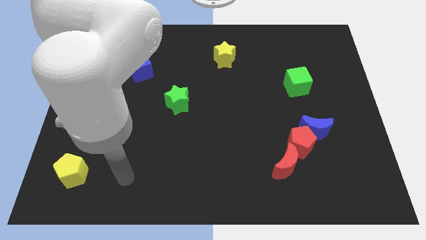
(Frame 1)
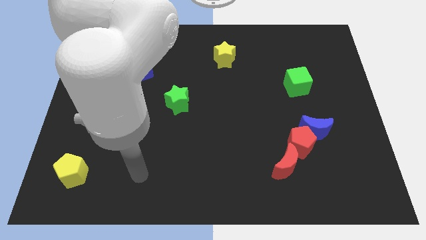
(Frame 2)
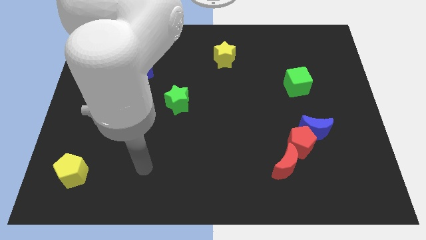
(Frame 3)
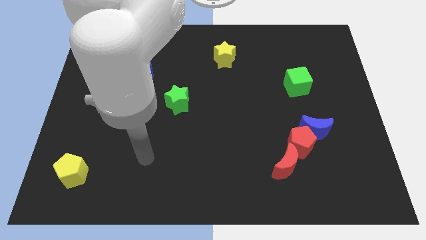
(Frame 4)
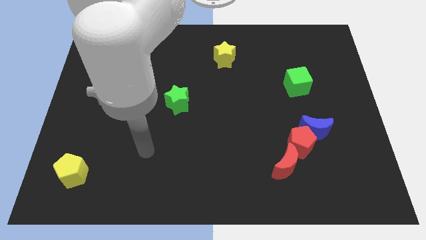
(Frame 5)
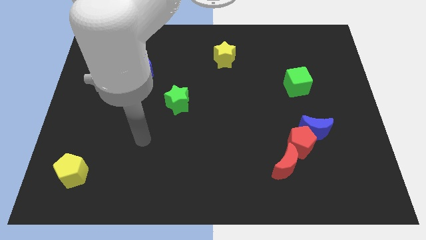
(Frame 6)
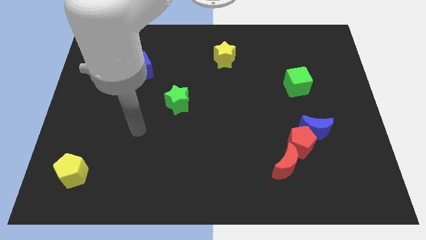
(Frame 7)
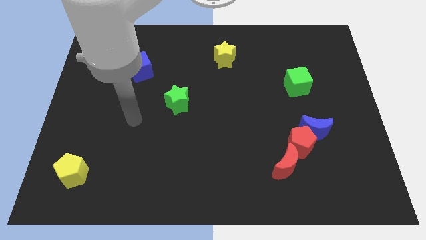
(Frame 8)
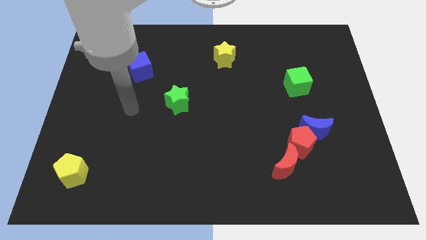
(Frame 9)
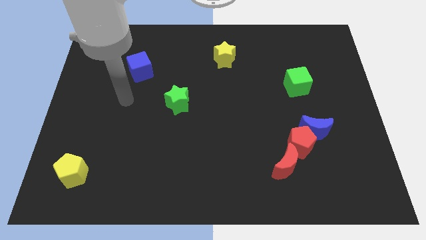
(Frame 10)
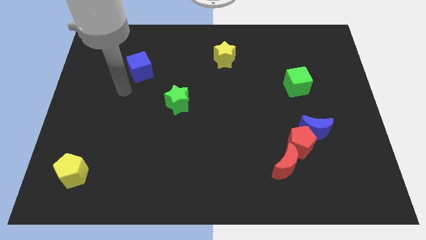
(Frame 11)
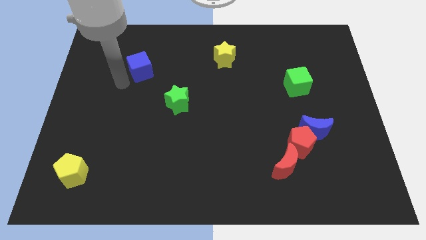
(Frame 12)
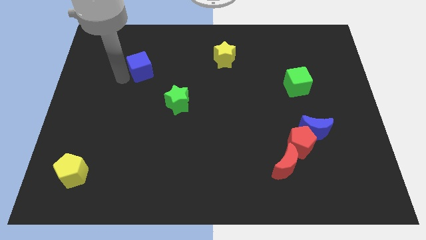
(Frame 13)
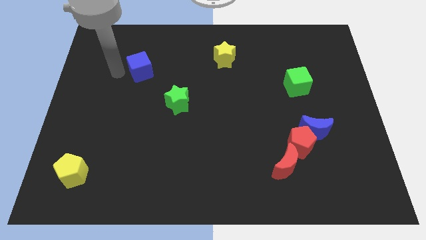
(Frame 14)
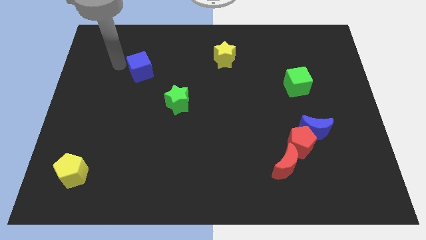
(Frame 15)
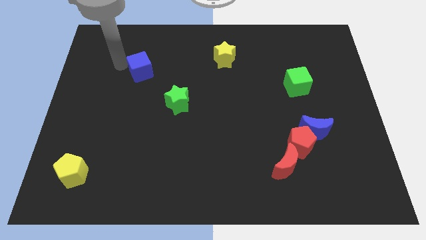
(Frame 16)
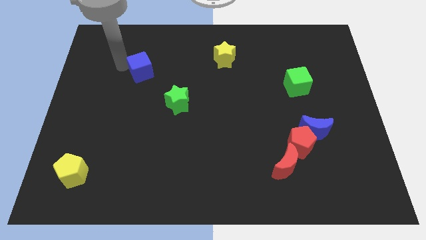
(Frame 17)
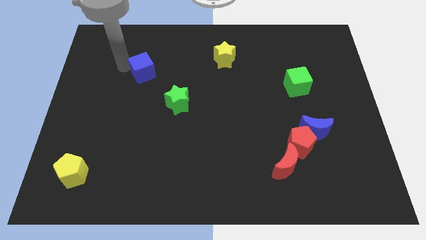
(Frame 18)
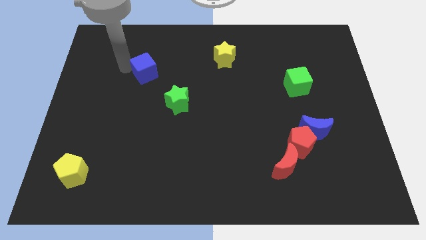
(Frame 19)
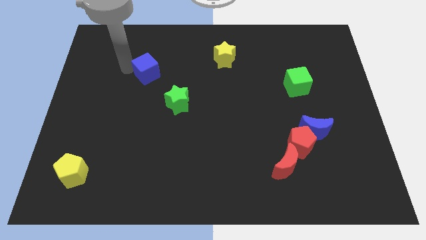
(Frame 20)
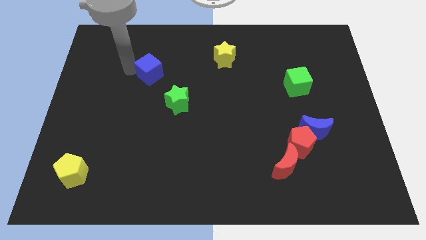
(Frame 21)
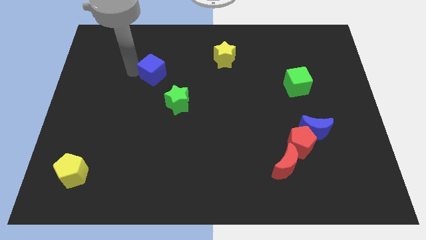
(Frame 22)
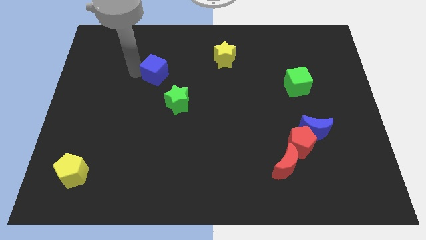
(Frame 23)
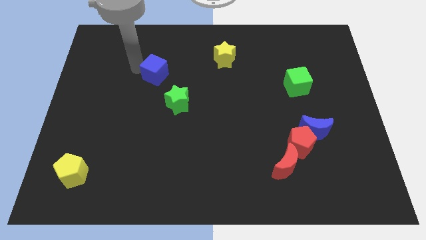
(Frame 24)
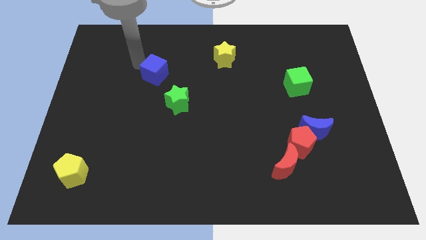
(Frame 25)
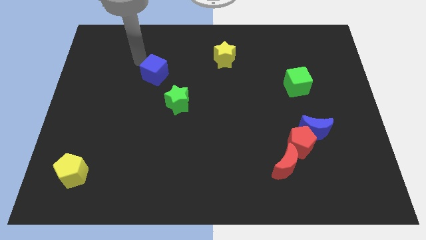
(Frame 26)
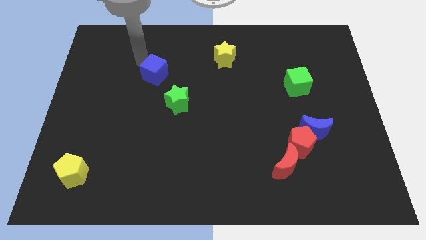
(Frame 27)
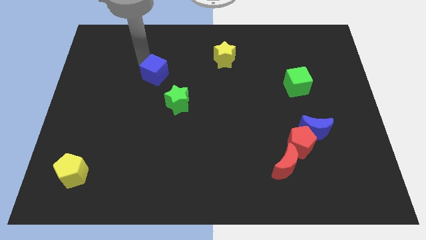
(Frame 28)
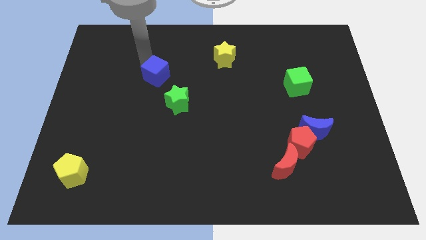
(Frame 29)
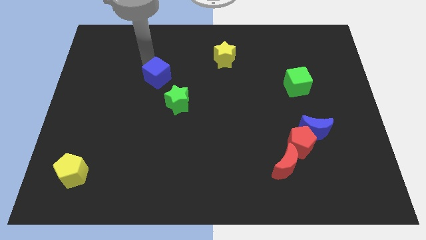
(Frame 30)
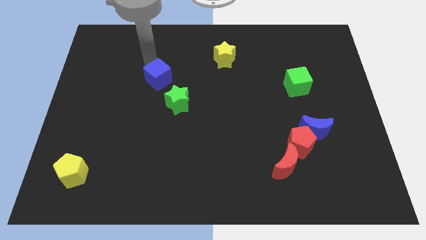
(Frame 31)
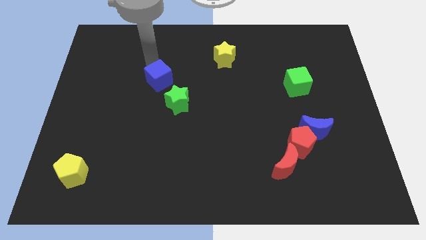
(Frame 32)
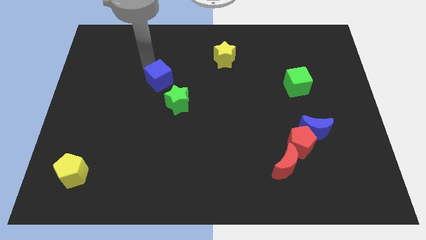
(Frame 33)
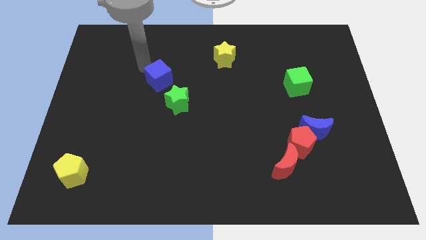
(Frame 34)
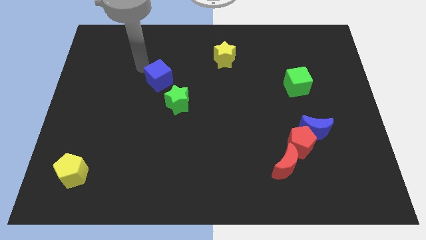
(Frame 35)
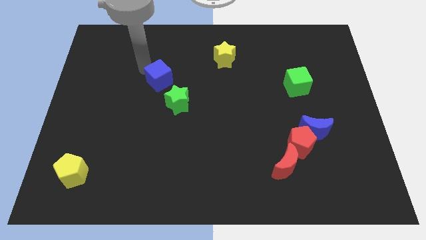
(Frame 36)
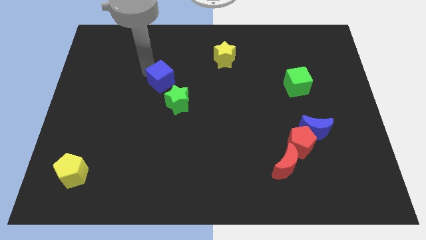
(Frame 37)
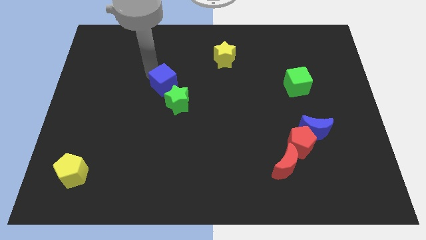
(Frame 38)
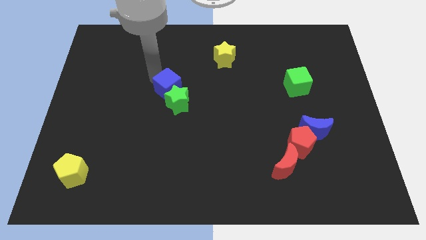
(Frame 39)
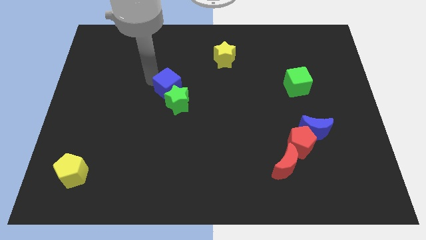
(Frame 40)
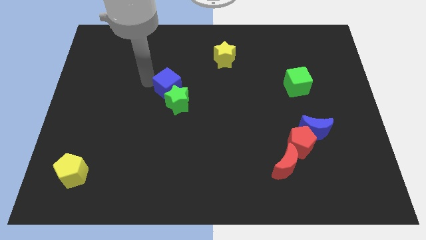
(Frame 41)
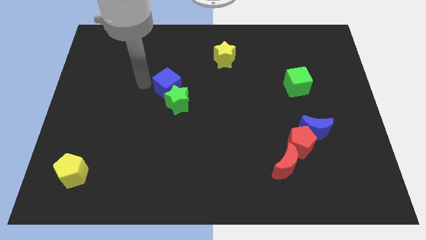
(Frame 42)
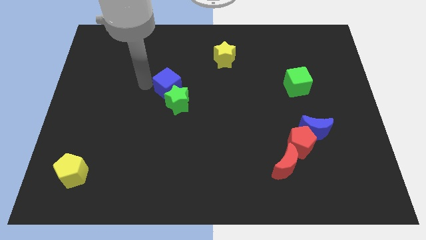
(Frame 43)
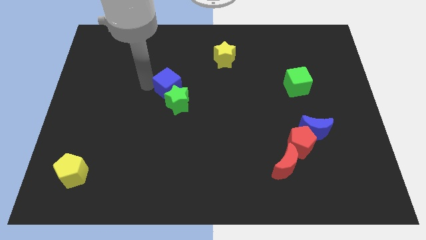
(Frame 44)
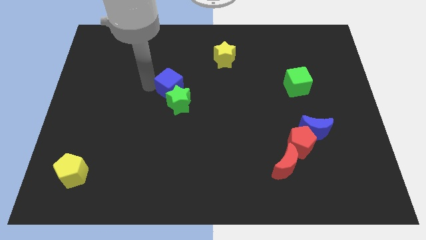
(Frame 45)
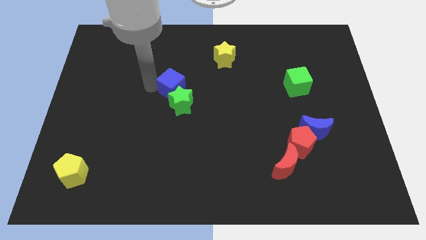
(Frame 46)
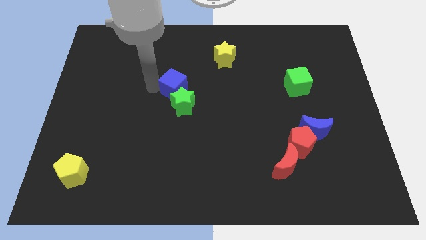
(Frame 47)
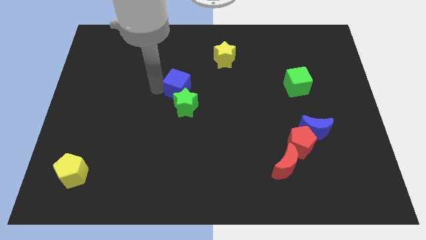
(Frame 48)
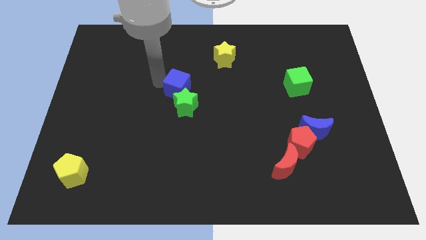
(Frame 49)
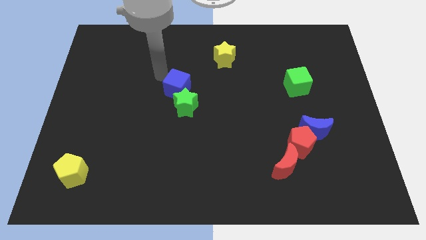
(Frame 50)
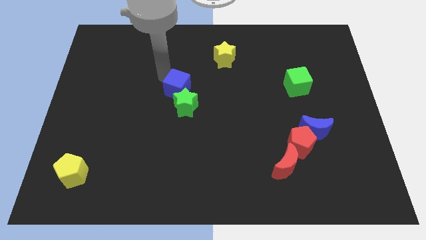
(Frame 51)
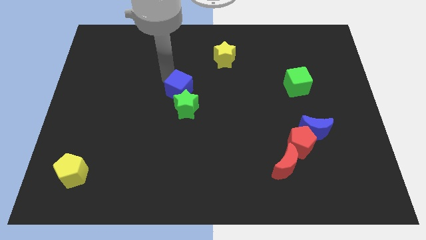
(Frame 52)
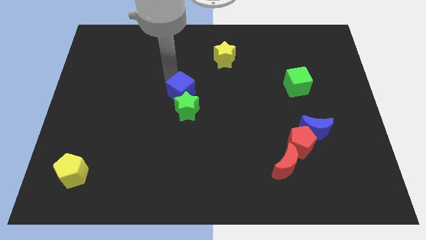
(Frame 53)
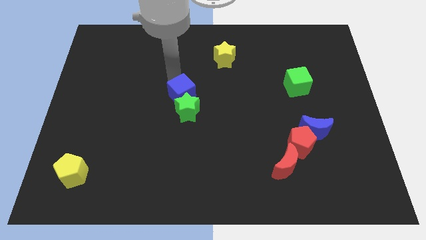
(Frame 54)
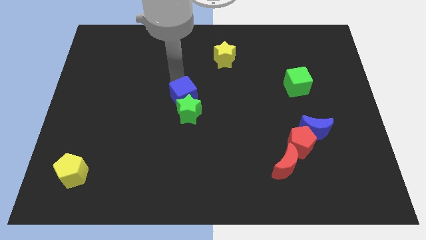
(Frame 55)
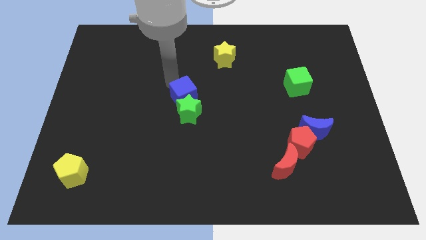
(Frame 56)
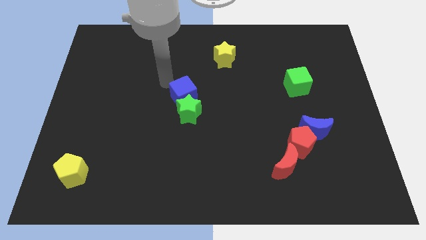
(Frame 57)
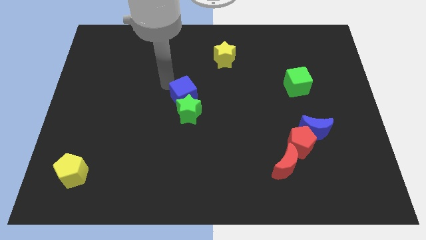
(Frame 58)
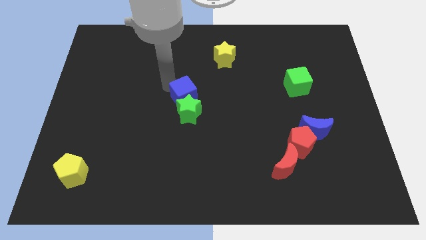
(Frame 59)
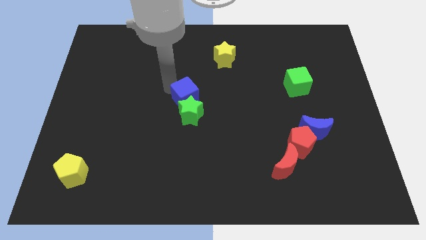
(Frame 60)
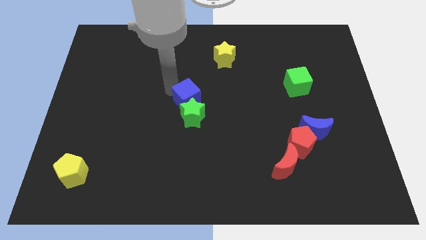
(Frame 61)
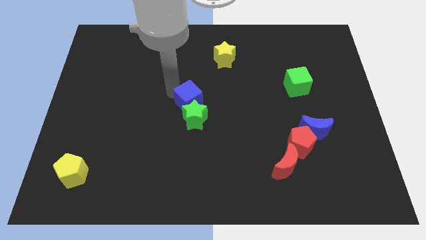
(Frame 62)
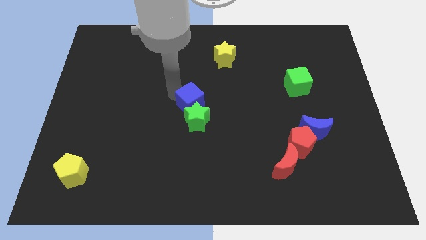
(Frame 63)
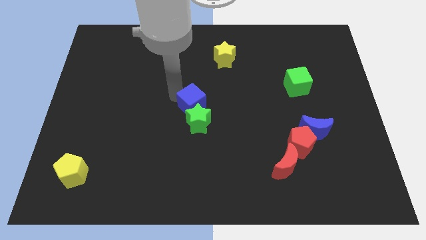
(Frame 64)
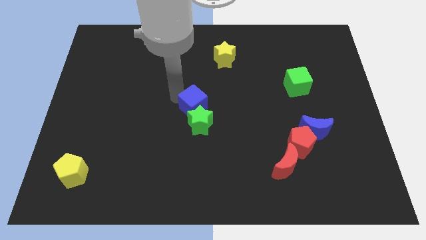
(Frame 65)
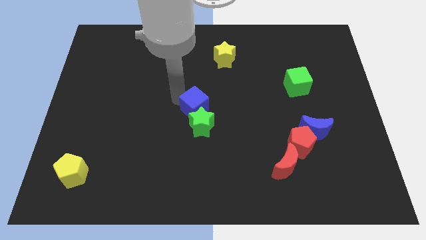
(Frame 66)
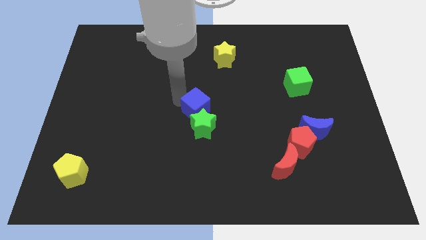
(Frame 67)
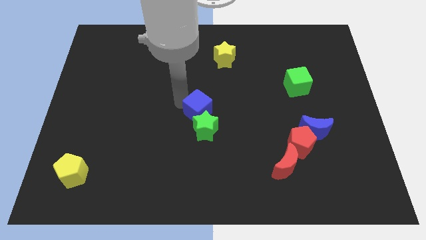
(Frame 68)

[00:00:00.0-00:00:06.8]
push the blue cube downwards and then right

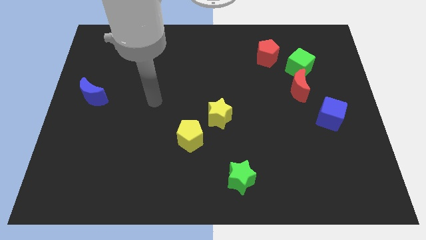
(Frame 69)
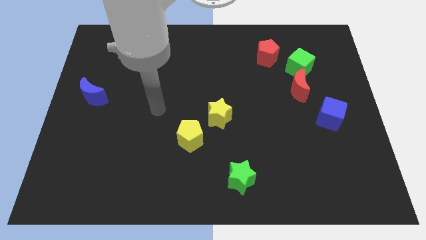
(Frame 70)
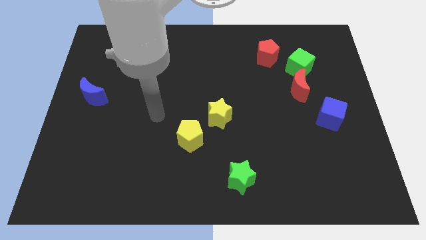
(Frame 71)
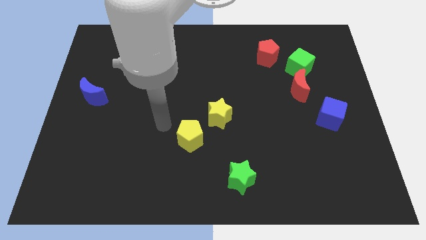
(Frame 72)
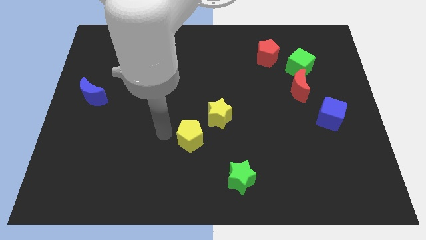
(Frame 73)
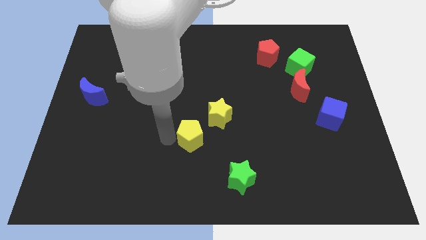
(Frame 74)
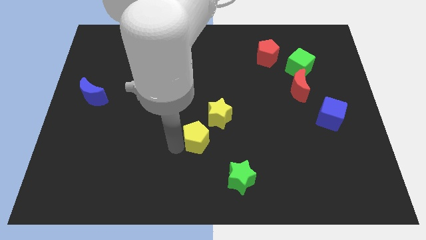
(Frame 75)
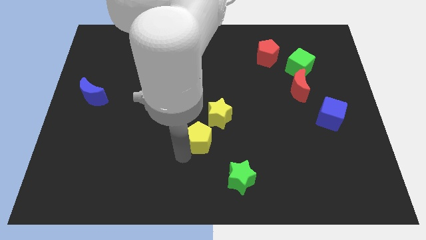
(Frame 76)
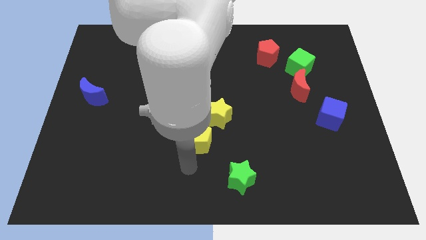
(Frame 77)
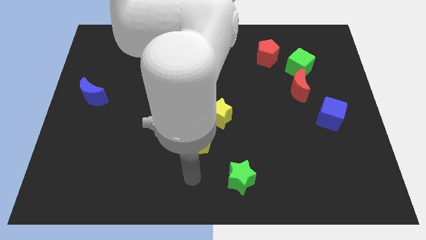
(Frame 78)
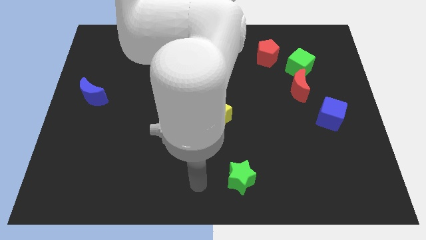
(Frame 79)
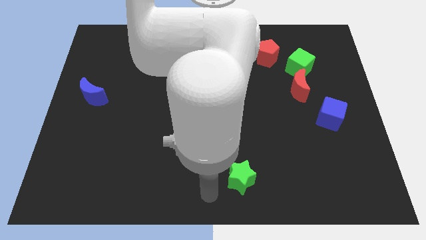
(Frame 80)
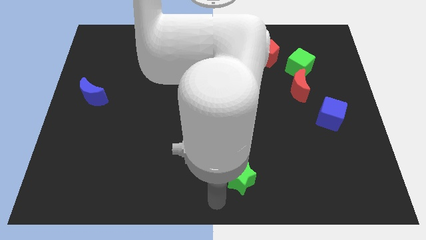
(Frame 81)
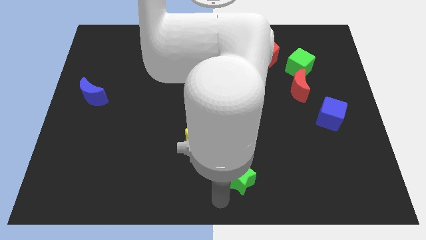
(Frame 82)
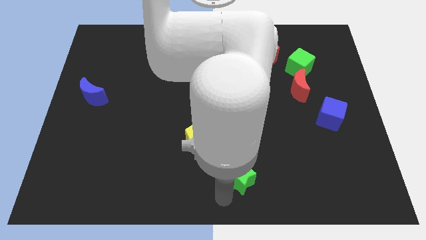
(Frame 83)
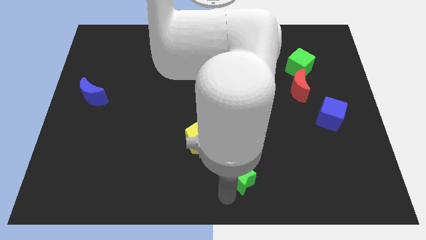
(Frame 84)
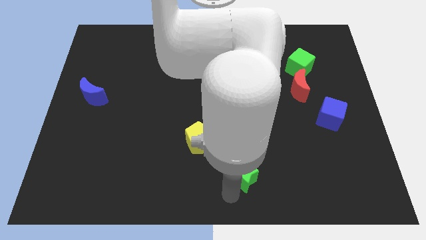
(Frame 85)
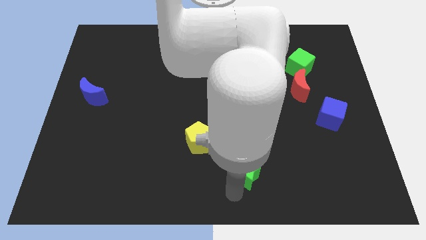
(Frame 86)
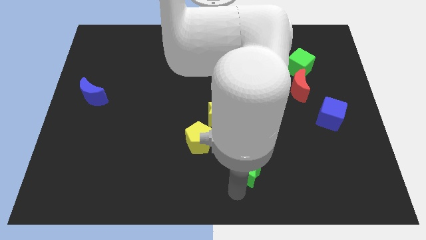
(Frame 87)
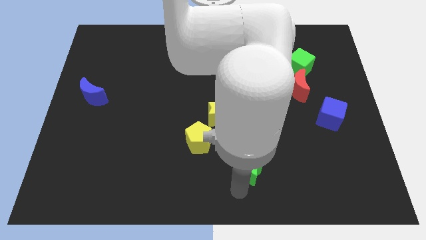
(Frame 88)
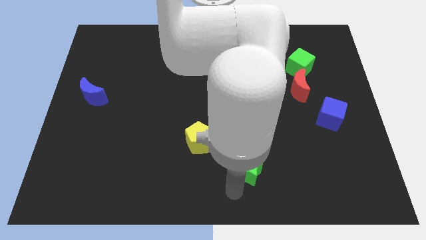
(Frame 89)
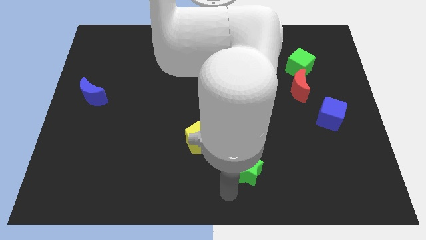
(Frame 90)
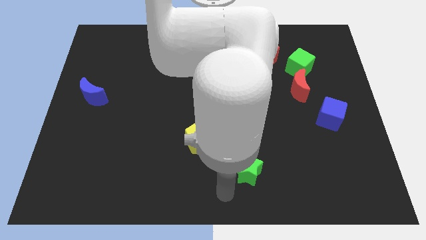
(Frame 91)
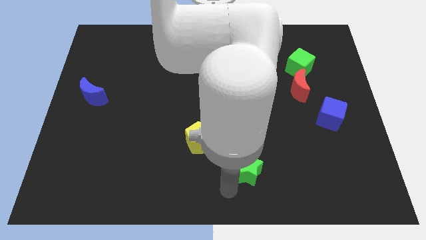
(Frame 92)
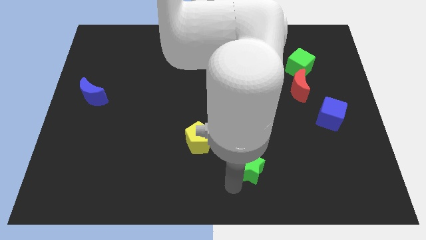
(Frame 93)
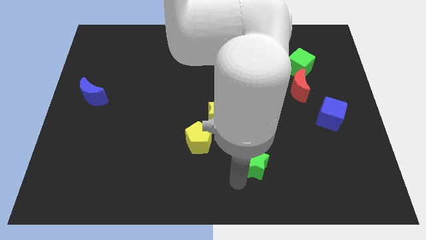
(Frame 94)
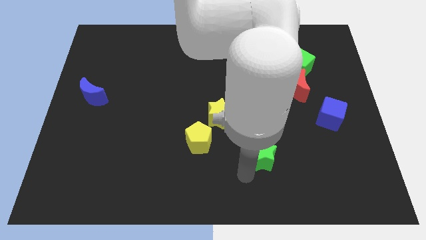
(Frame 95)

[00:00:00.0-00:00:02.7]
push the green star up and right diagonally somewhat
